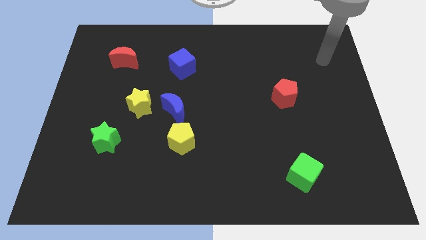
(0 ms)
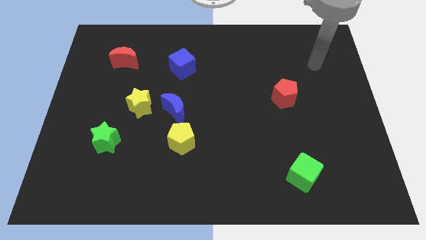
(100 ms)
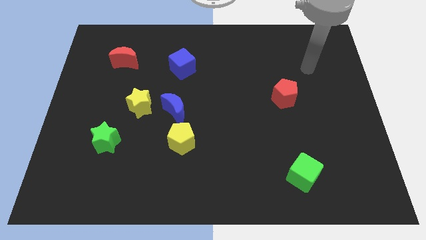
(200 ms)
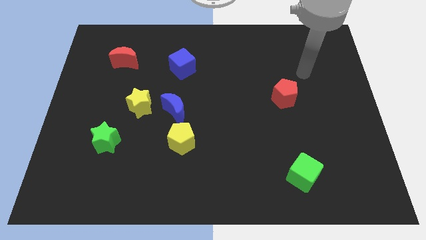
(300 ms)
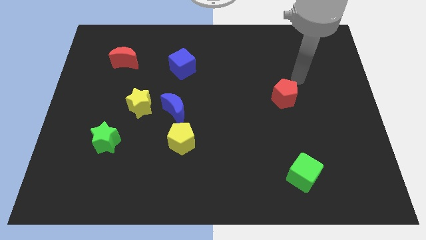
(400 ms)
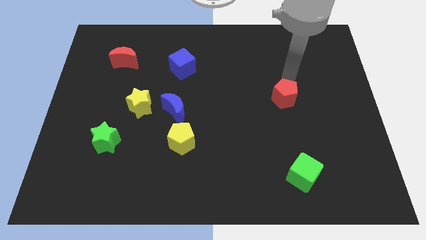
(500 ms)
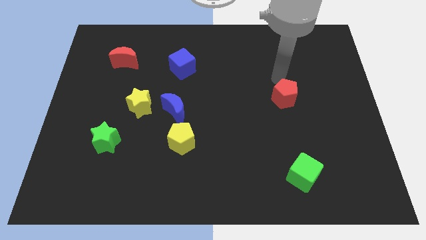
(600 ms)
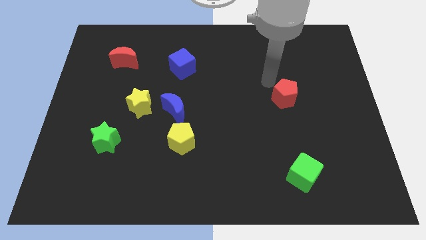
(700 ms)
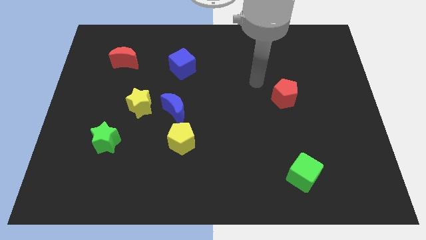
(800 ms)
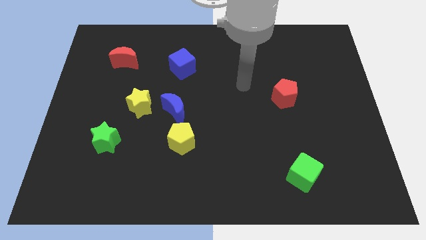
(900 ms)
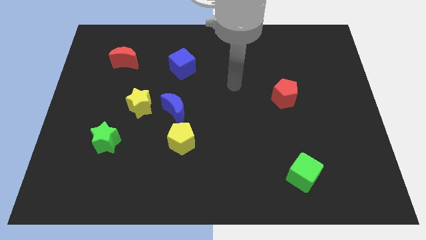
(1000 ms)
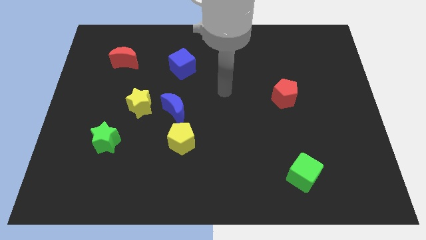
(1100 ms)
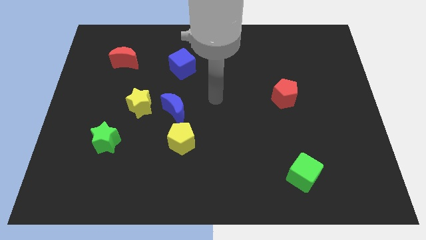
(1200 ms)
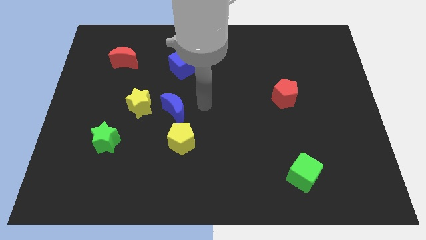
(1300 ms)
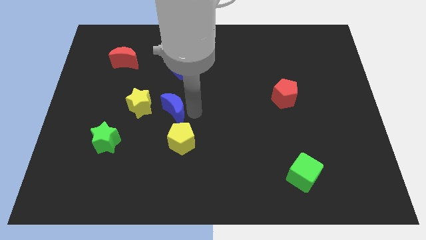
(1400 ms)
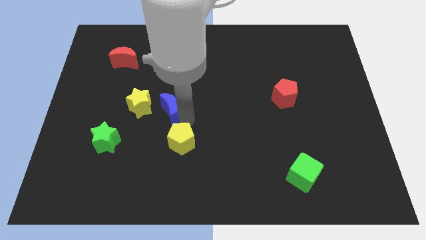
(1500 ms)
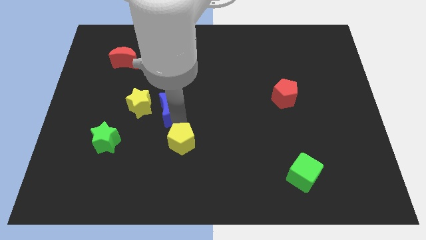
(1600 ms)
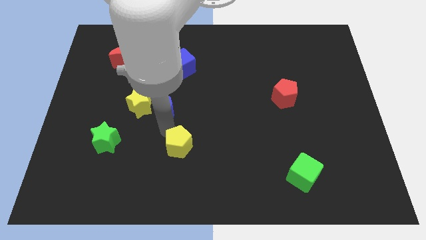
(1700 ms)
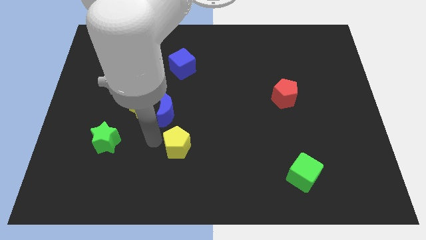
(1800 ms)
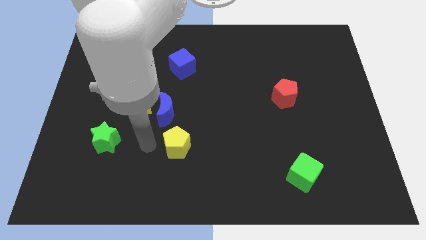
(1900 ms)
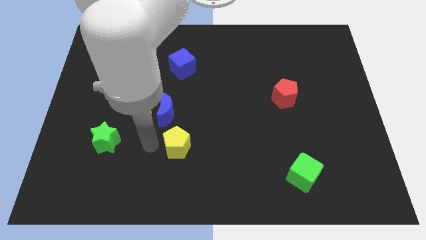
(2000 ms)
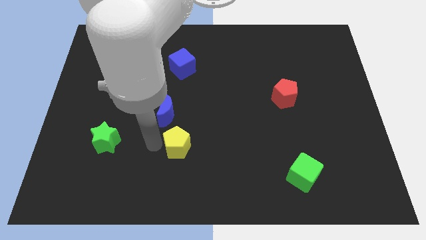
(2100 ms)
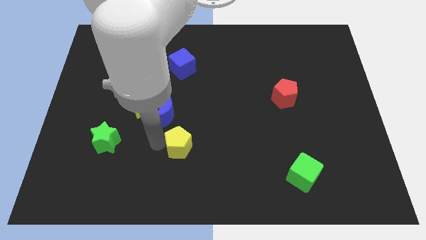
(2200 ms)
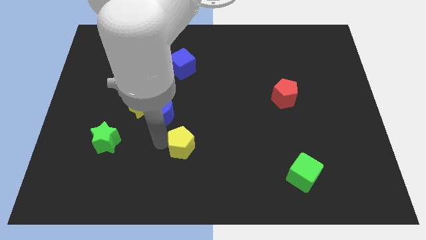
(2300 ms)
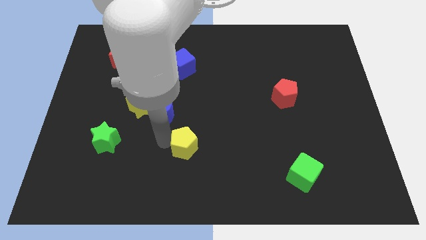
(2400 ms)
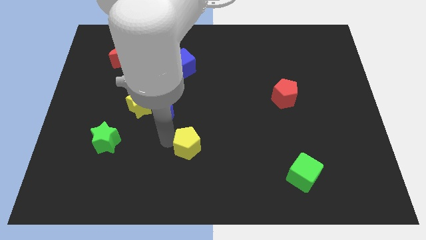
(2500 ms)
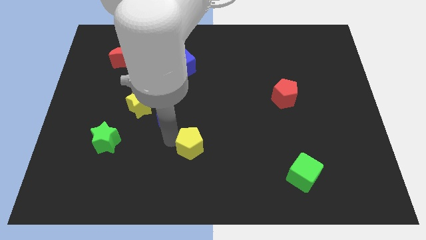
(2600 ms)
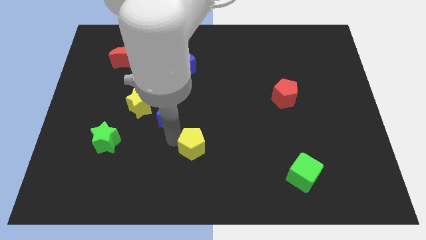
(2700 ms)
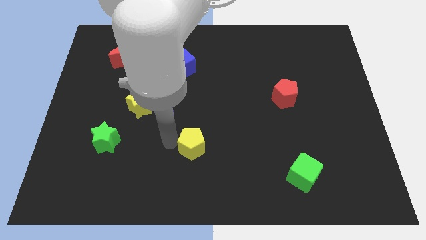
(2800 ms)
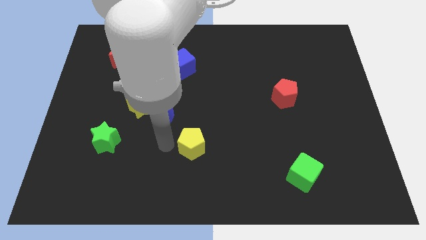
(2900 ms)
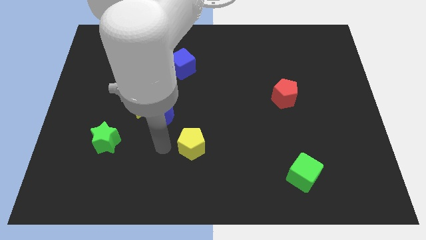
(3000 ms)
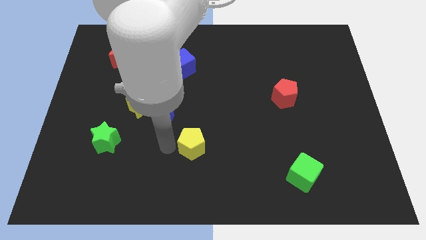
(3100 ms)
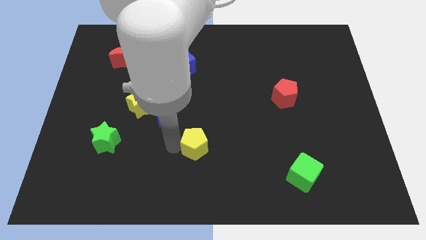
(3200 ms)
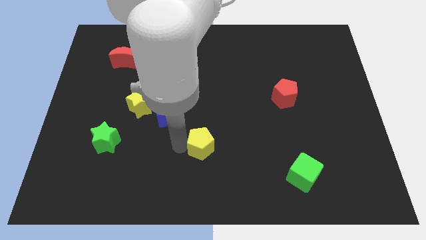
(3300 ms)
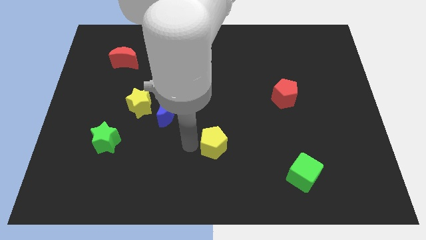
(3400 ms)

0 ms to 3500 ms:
slightly move the yellow pentagon right

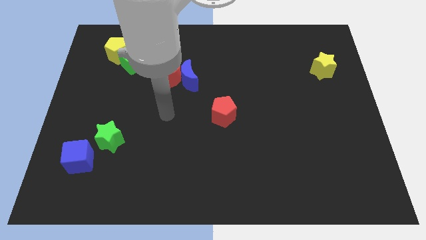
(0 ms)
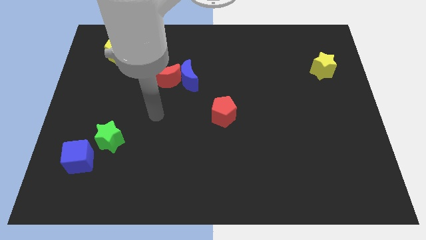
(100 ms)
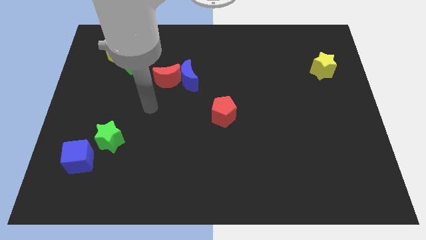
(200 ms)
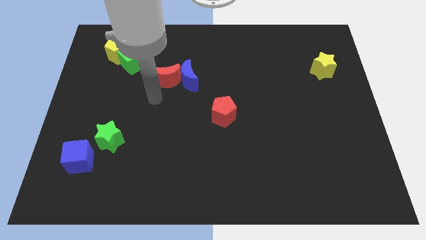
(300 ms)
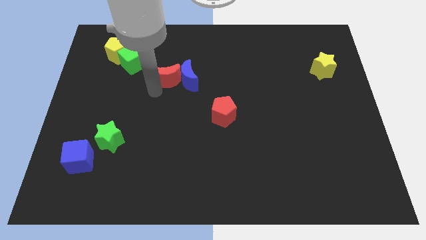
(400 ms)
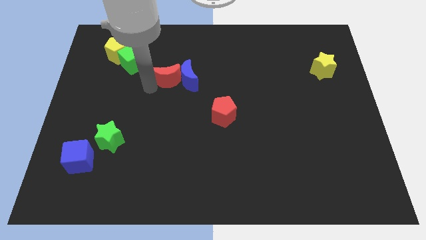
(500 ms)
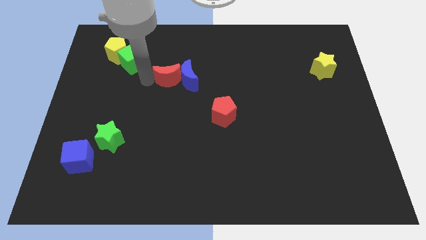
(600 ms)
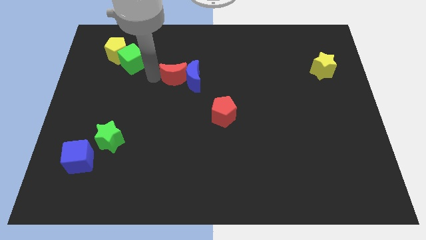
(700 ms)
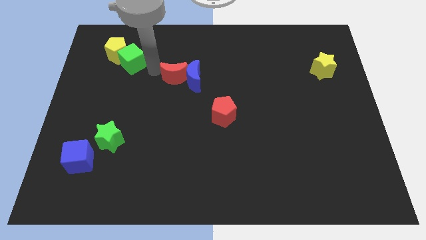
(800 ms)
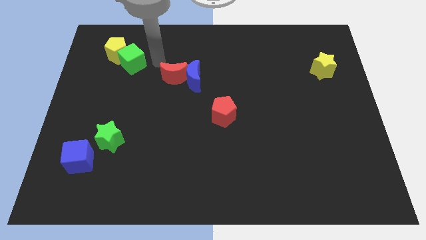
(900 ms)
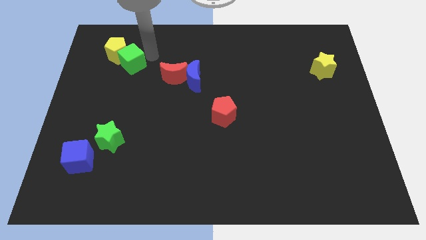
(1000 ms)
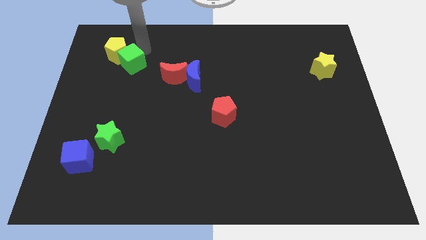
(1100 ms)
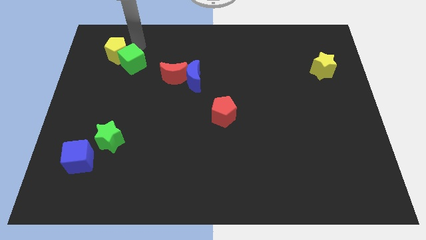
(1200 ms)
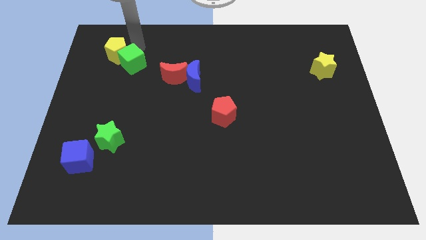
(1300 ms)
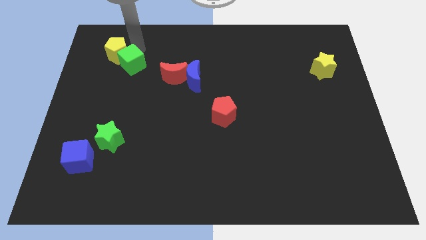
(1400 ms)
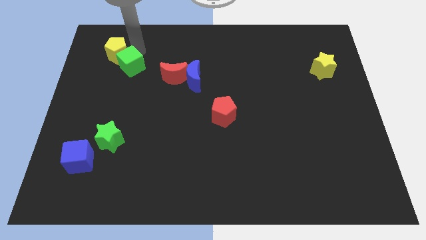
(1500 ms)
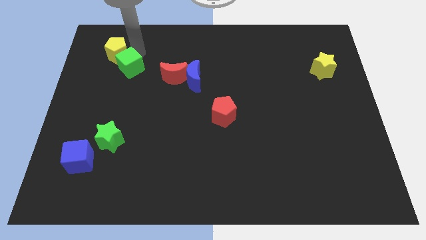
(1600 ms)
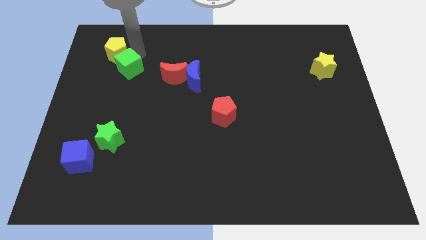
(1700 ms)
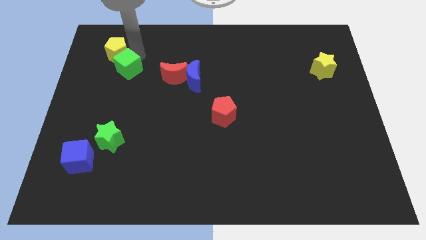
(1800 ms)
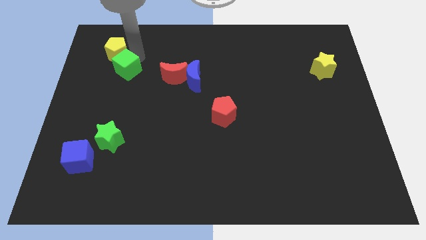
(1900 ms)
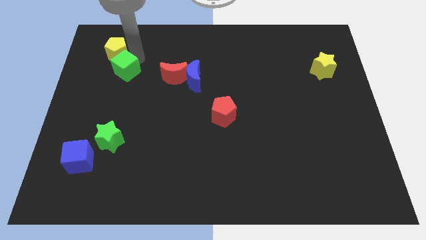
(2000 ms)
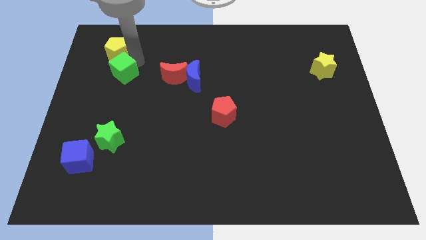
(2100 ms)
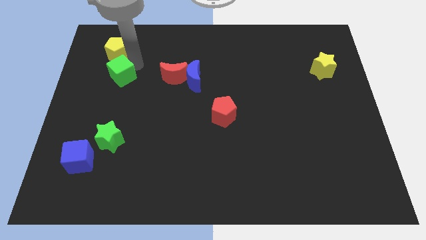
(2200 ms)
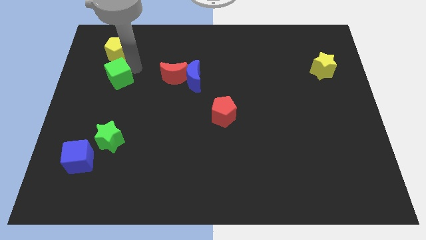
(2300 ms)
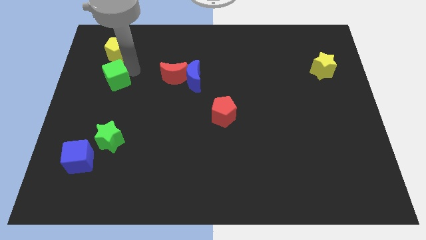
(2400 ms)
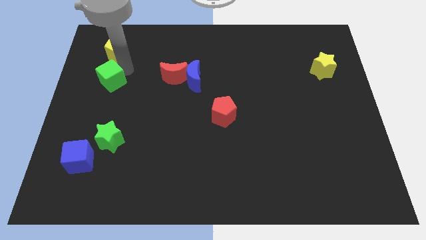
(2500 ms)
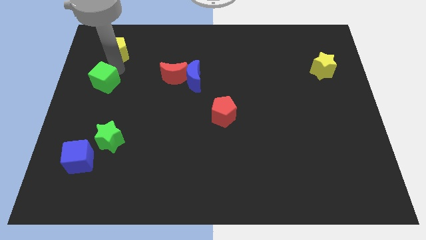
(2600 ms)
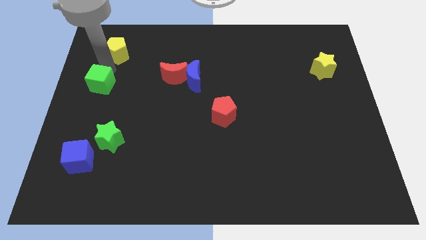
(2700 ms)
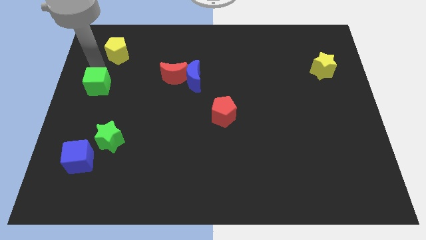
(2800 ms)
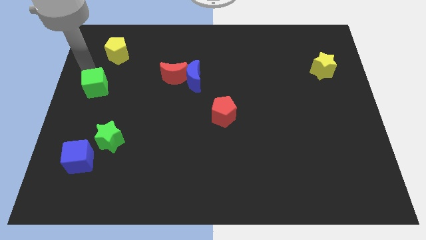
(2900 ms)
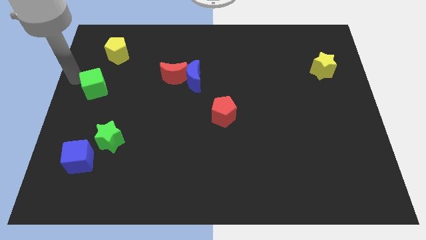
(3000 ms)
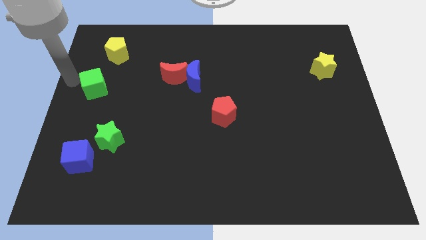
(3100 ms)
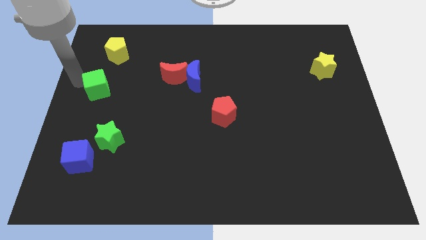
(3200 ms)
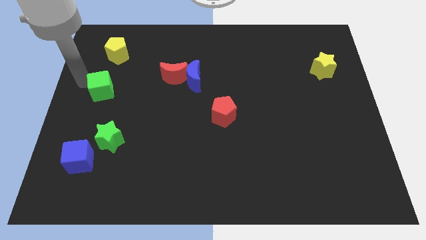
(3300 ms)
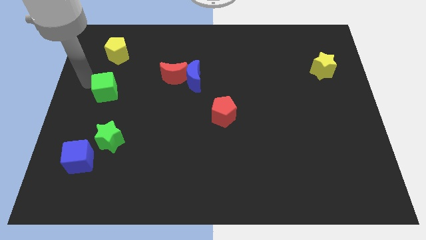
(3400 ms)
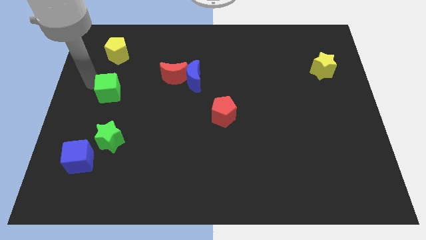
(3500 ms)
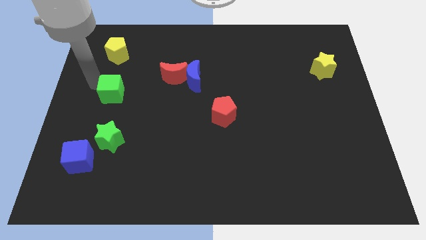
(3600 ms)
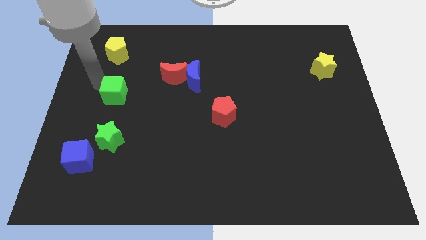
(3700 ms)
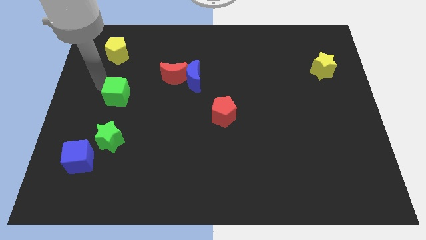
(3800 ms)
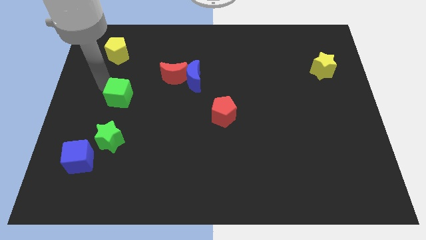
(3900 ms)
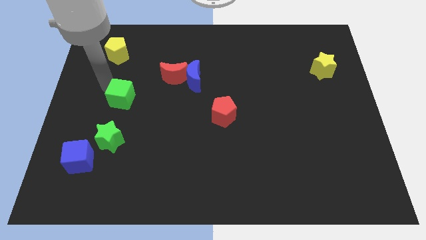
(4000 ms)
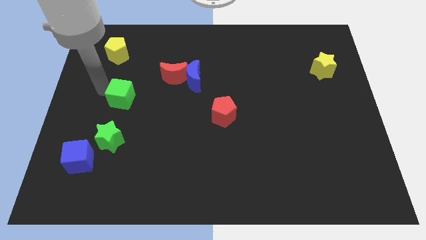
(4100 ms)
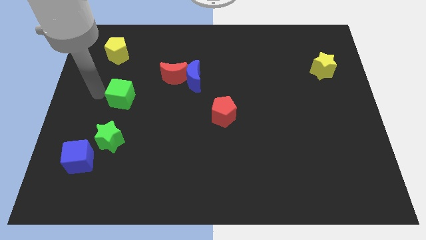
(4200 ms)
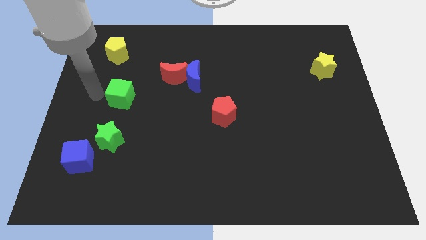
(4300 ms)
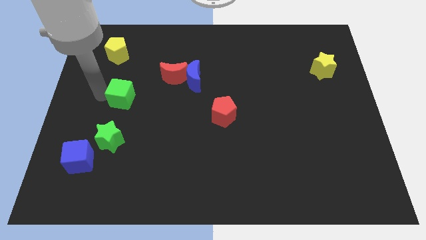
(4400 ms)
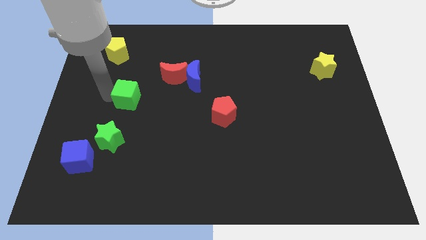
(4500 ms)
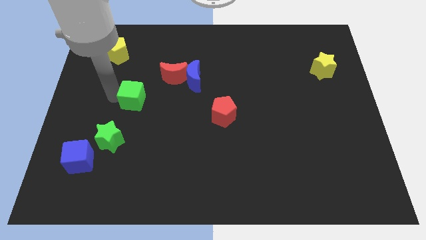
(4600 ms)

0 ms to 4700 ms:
move the green cube slightly down and to the right

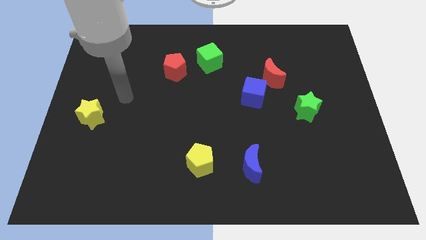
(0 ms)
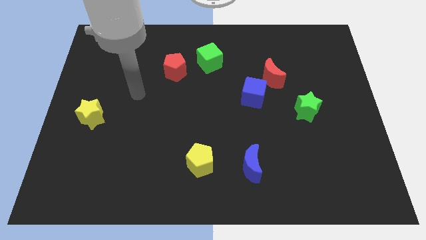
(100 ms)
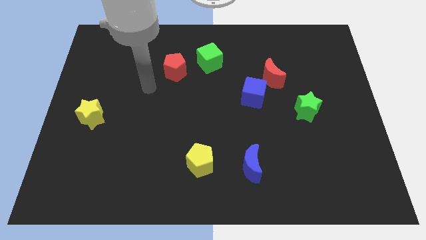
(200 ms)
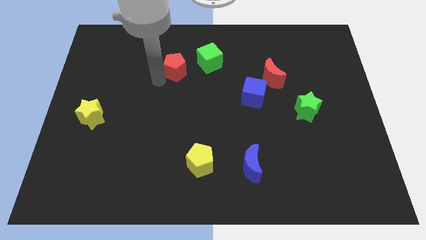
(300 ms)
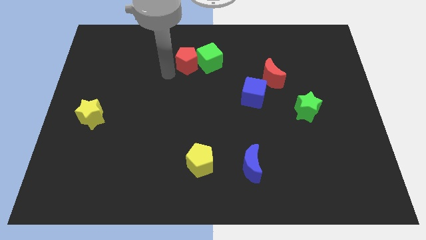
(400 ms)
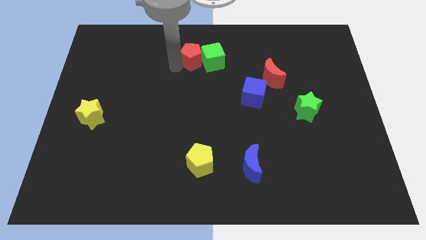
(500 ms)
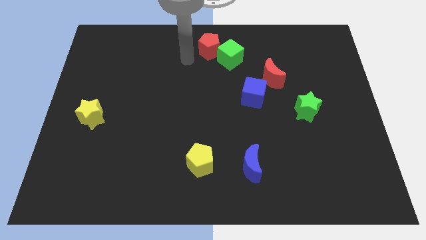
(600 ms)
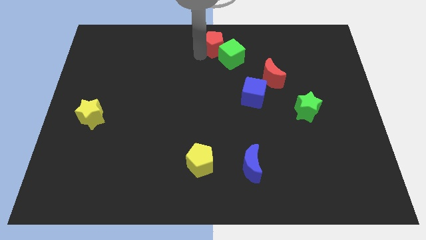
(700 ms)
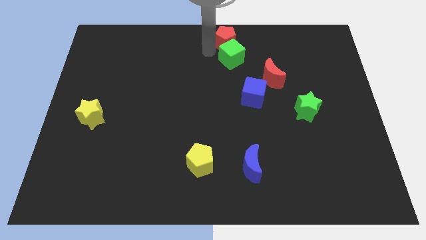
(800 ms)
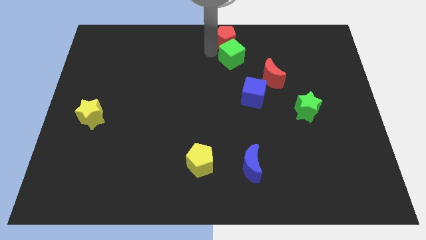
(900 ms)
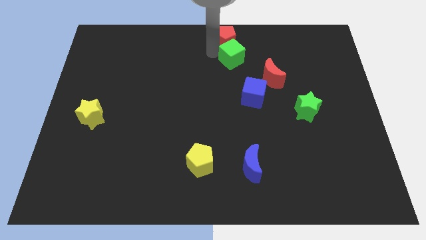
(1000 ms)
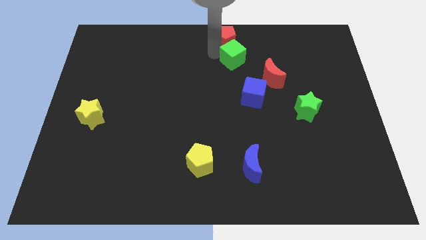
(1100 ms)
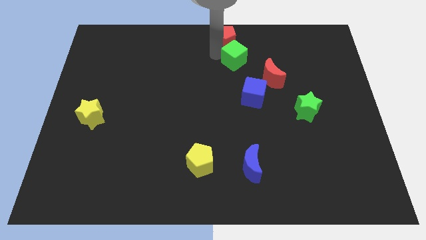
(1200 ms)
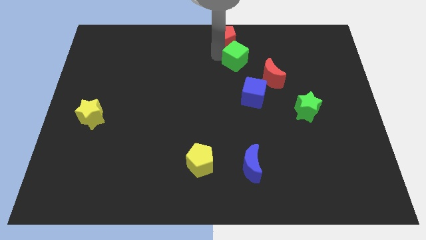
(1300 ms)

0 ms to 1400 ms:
slide the green cube a little bit right
